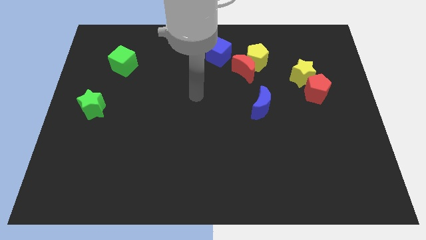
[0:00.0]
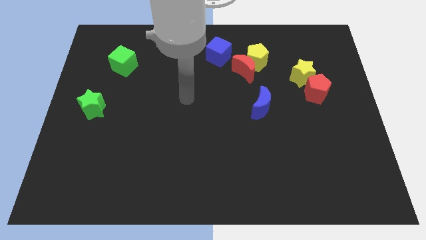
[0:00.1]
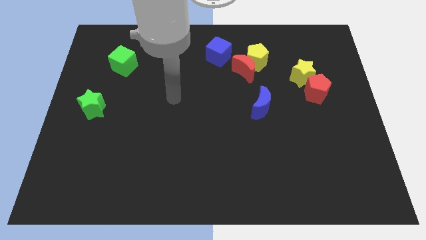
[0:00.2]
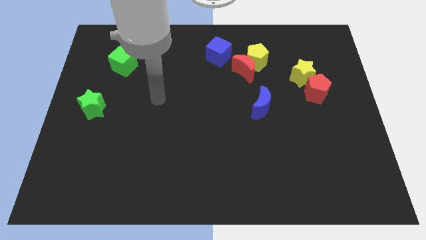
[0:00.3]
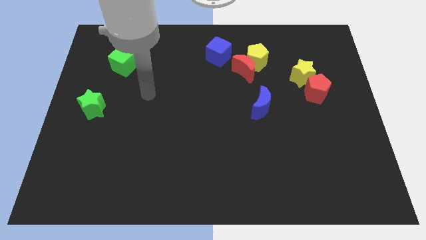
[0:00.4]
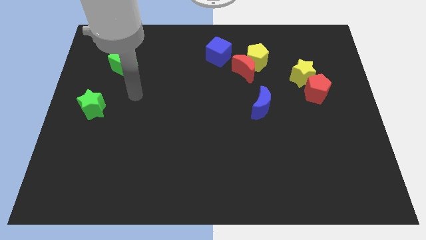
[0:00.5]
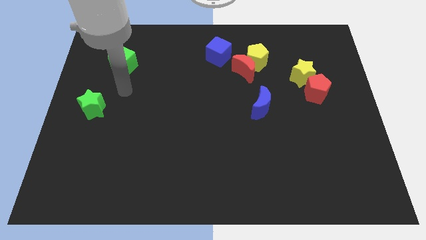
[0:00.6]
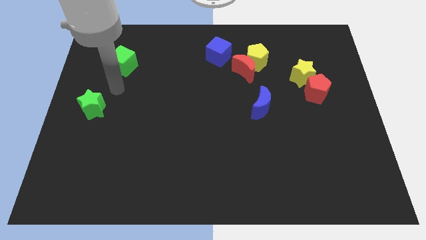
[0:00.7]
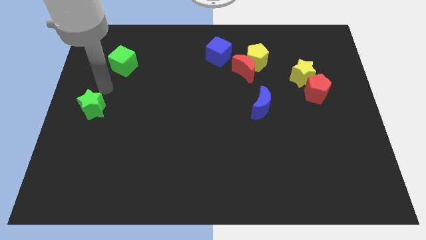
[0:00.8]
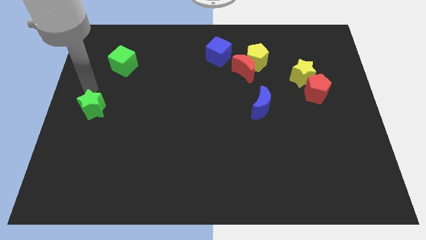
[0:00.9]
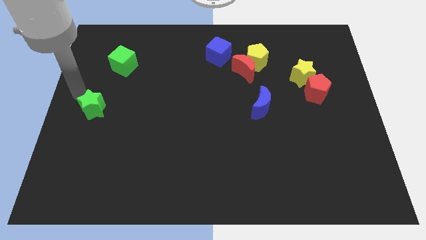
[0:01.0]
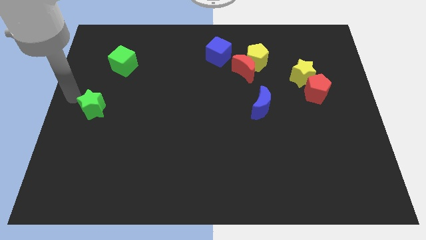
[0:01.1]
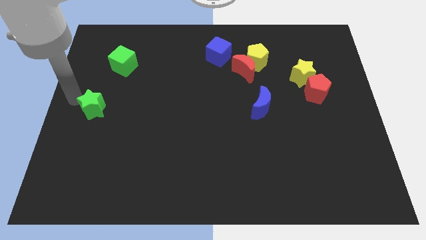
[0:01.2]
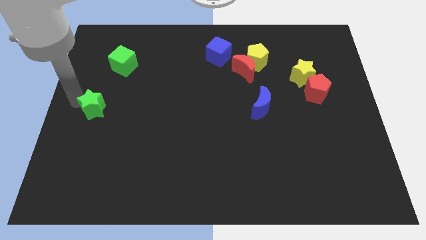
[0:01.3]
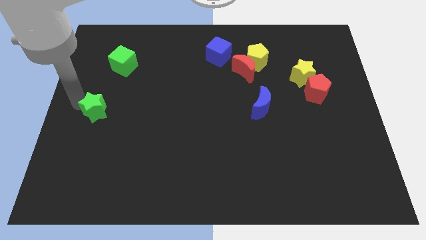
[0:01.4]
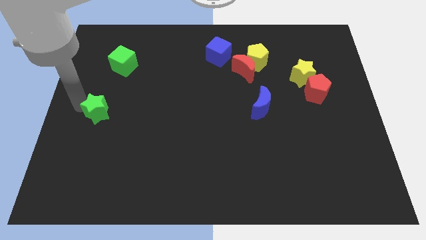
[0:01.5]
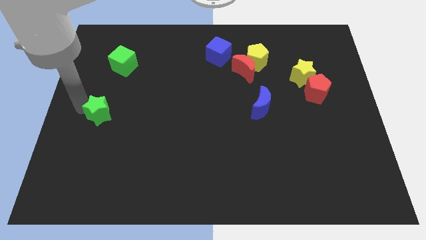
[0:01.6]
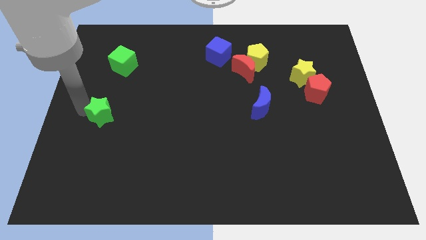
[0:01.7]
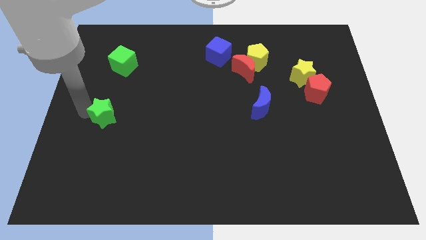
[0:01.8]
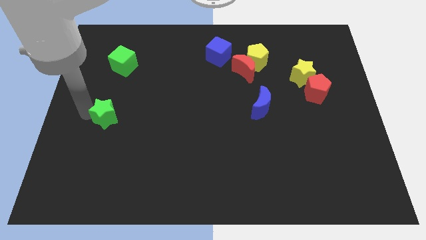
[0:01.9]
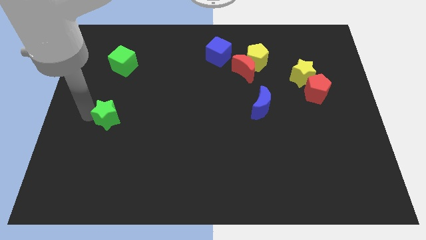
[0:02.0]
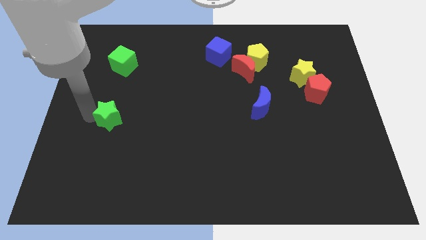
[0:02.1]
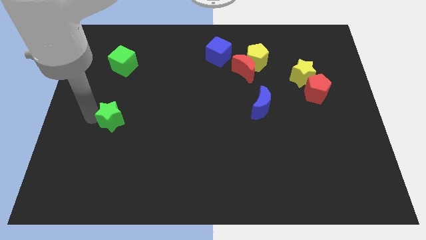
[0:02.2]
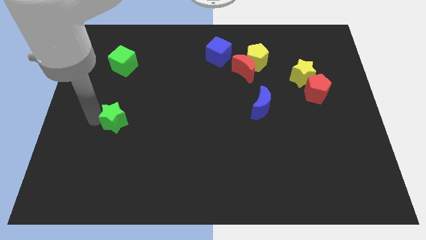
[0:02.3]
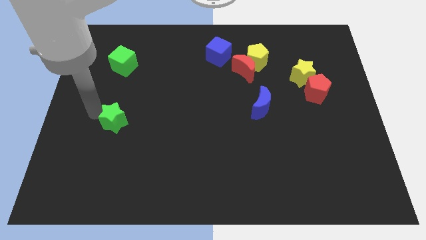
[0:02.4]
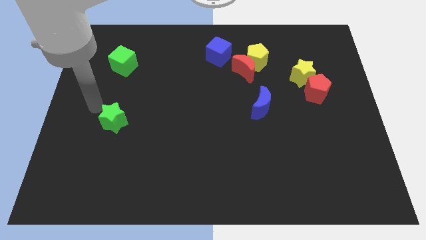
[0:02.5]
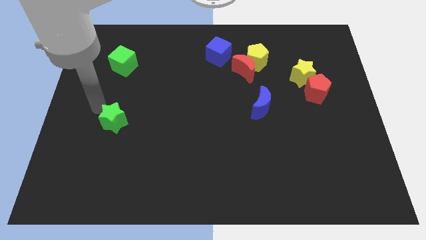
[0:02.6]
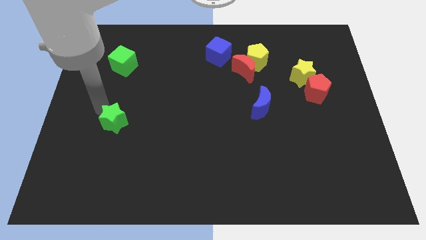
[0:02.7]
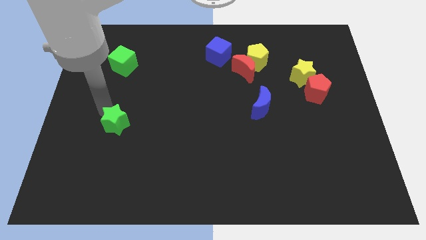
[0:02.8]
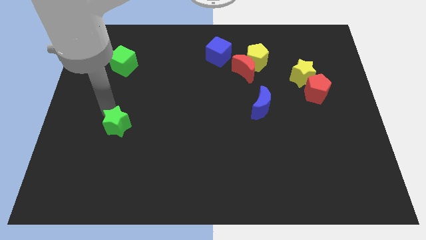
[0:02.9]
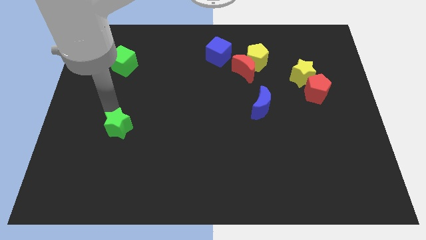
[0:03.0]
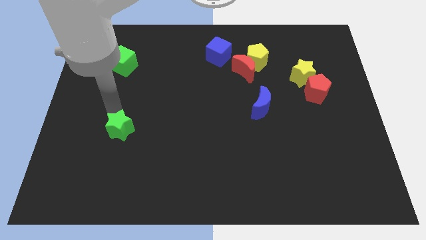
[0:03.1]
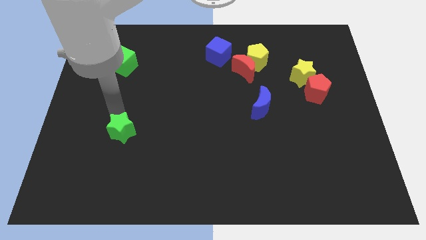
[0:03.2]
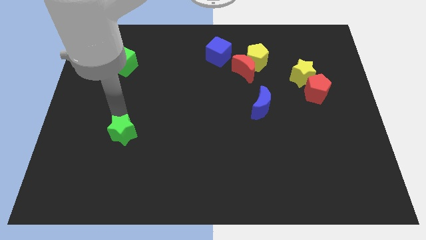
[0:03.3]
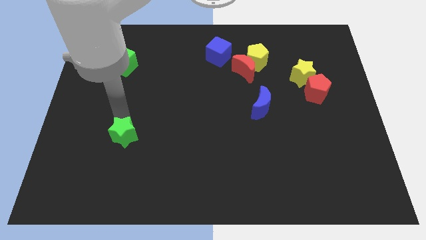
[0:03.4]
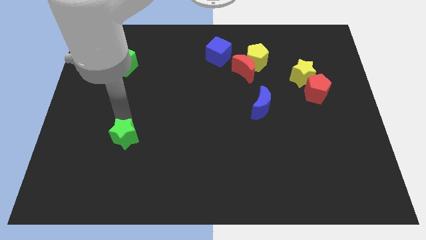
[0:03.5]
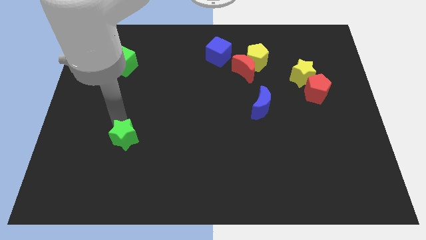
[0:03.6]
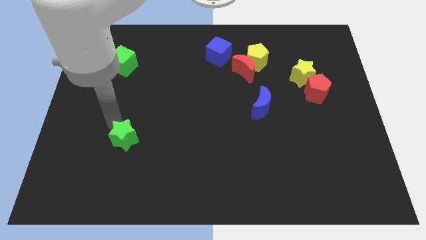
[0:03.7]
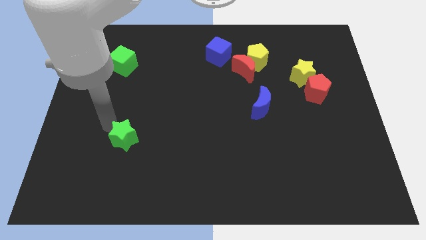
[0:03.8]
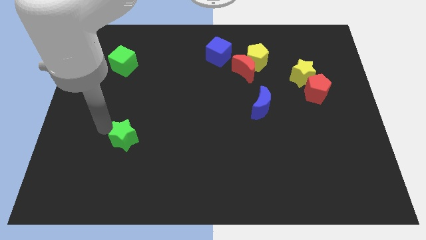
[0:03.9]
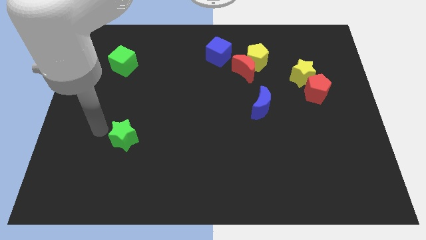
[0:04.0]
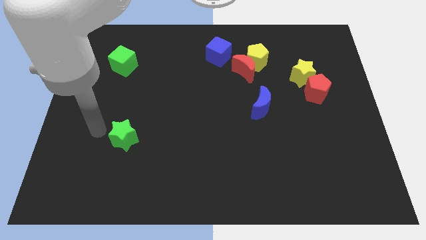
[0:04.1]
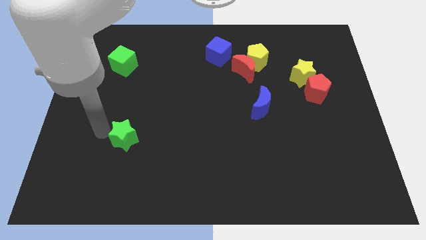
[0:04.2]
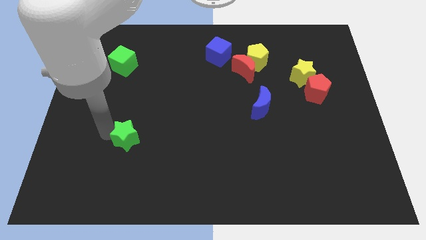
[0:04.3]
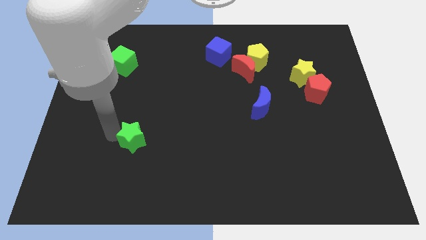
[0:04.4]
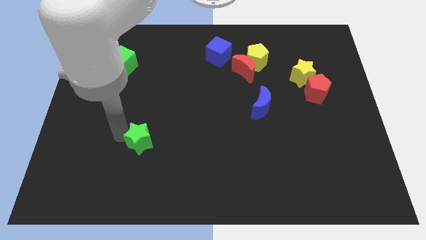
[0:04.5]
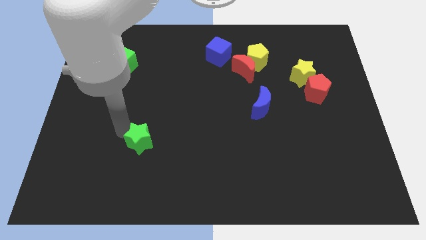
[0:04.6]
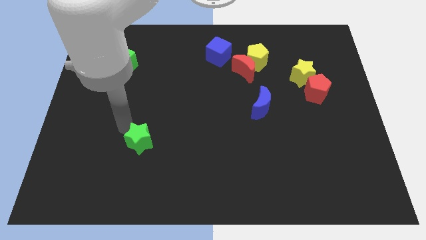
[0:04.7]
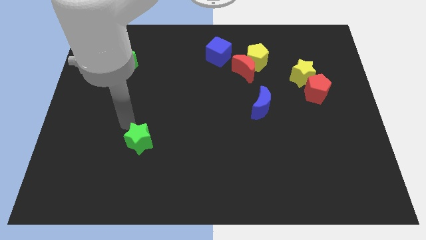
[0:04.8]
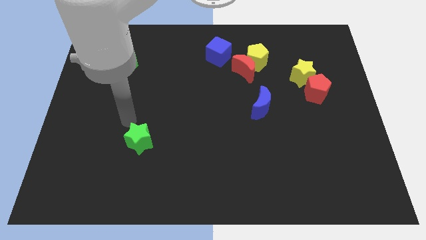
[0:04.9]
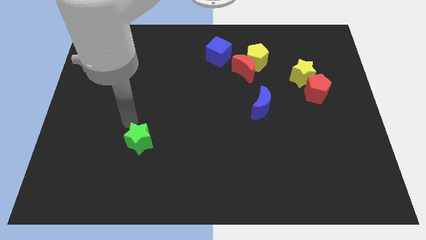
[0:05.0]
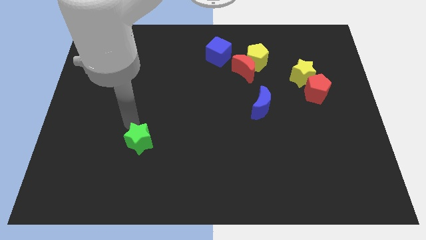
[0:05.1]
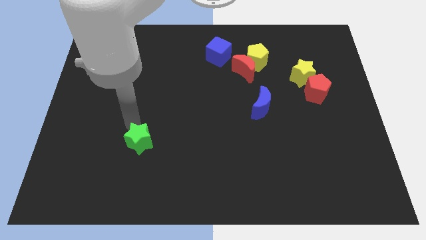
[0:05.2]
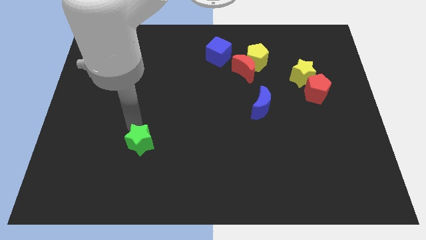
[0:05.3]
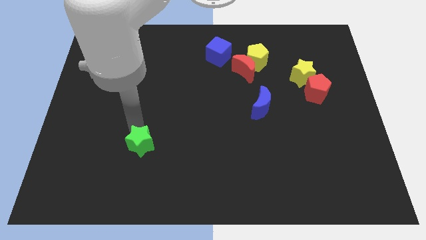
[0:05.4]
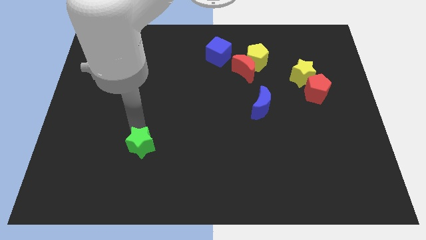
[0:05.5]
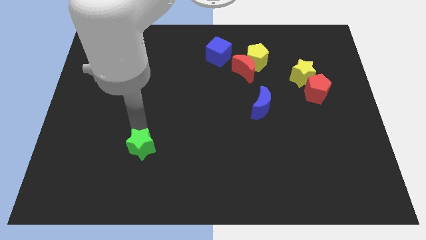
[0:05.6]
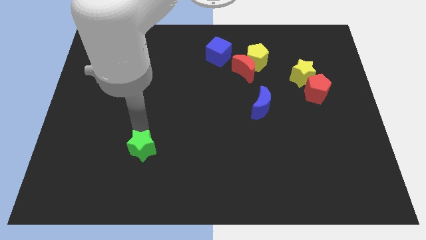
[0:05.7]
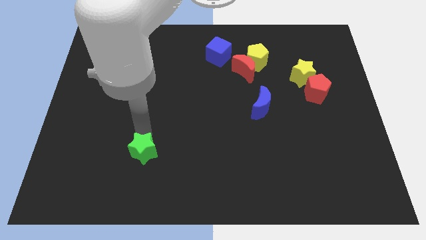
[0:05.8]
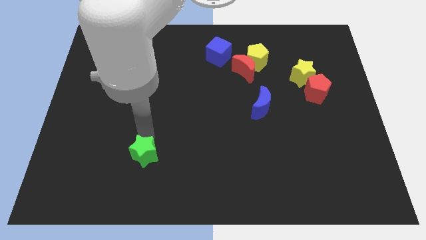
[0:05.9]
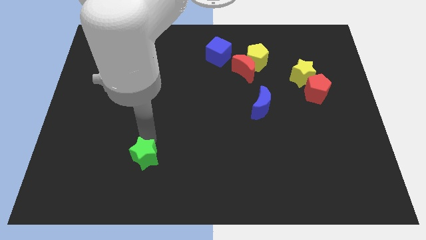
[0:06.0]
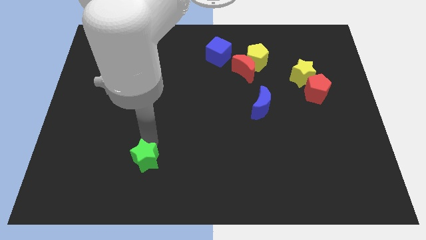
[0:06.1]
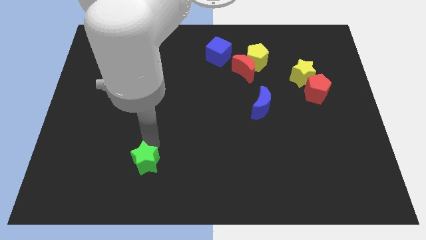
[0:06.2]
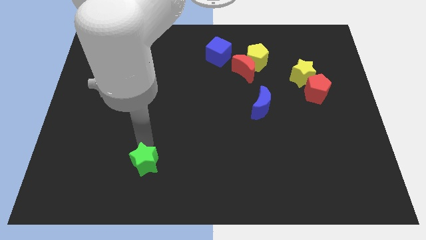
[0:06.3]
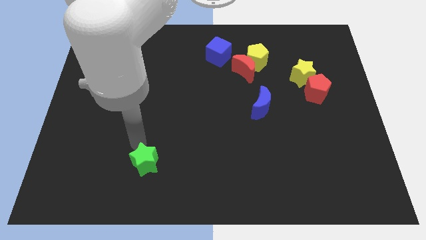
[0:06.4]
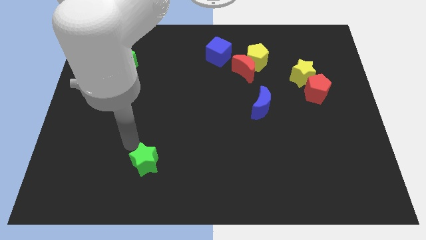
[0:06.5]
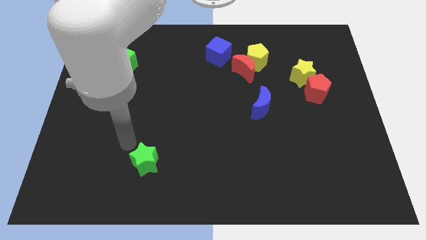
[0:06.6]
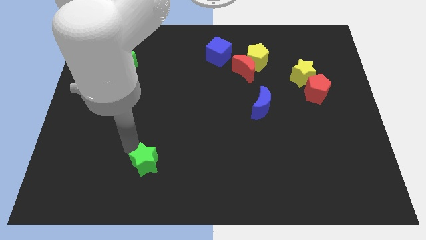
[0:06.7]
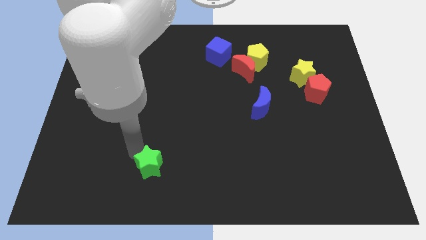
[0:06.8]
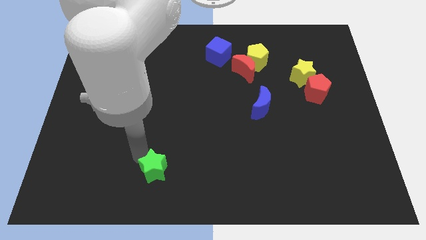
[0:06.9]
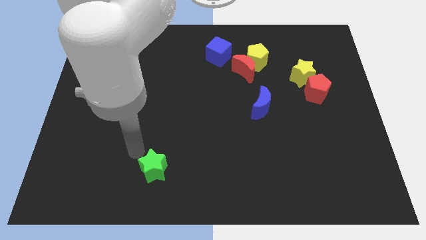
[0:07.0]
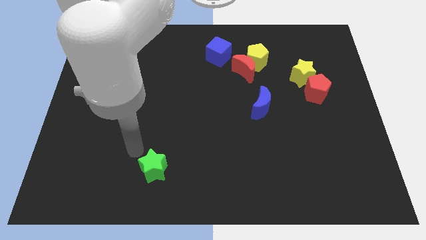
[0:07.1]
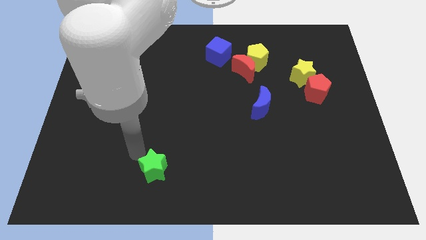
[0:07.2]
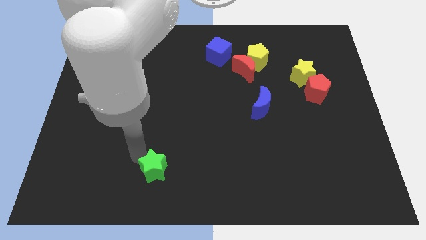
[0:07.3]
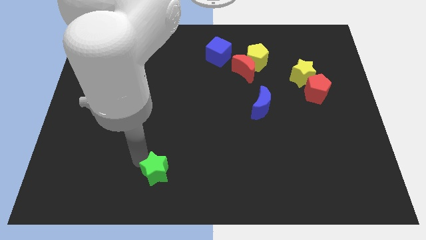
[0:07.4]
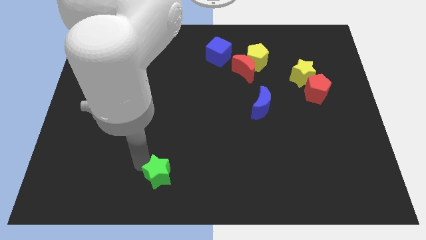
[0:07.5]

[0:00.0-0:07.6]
put the green star to the bottom side

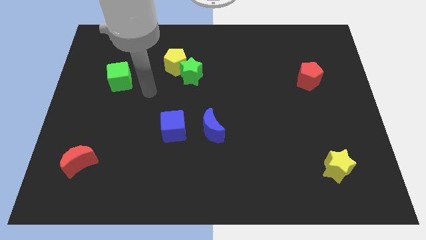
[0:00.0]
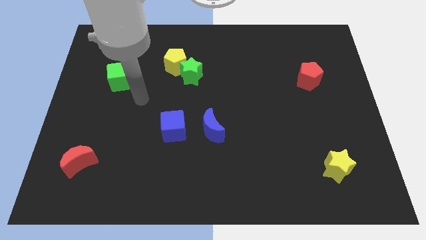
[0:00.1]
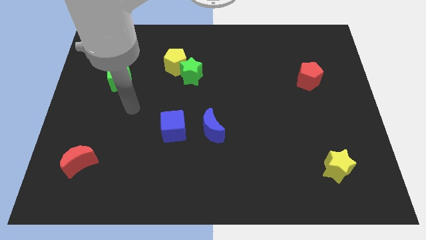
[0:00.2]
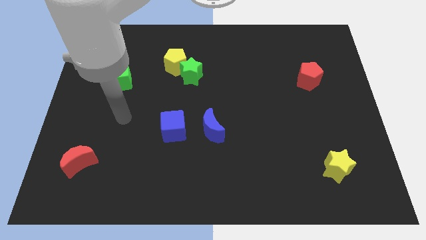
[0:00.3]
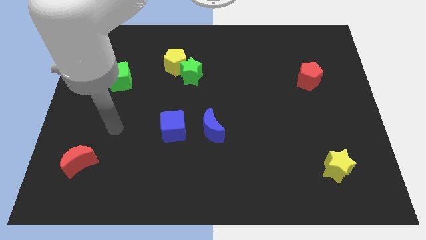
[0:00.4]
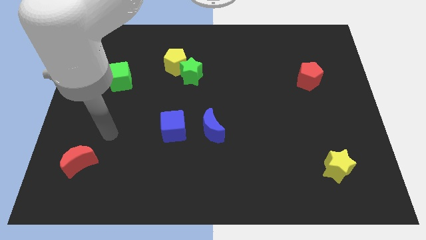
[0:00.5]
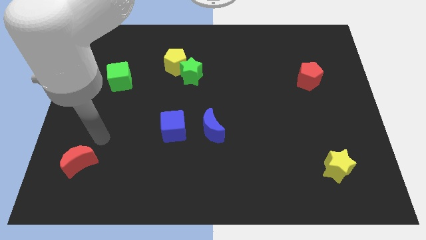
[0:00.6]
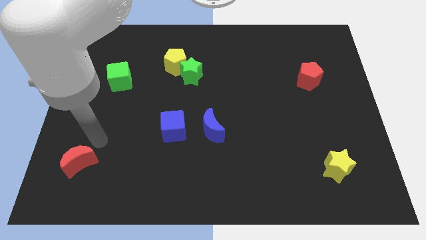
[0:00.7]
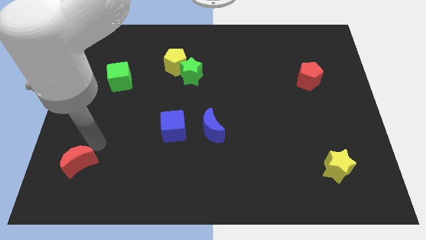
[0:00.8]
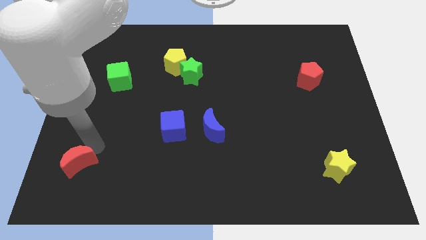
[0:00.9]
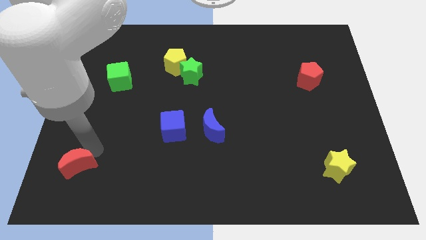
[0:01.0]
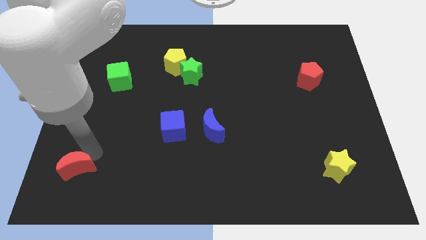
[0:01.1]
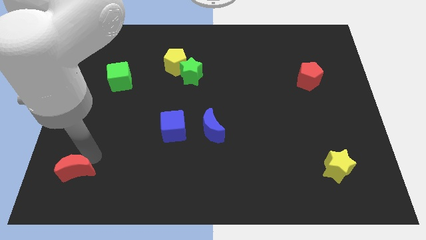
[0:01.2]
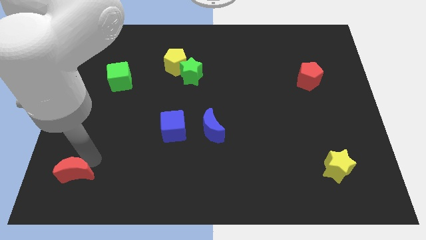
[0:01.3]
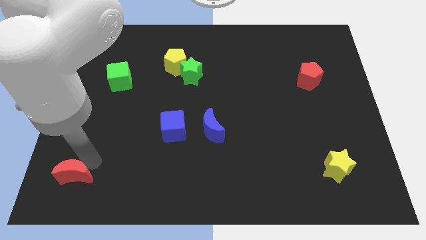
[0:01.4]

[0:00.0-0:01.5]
push the red moon to the bottom left of the board
